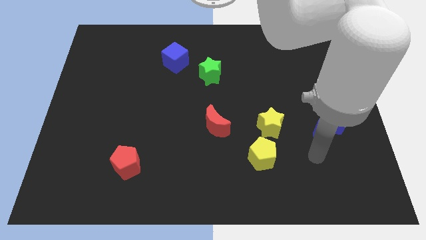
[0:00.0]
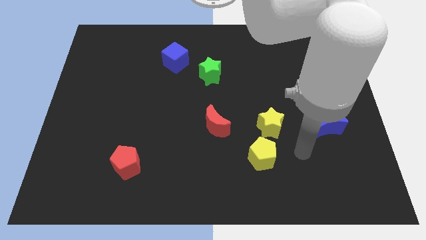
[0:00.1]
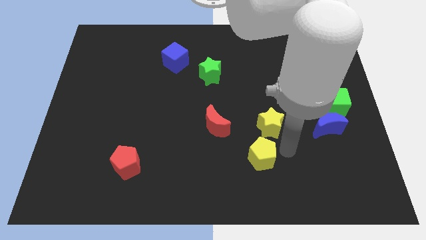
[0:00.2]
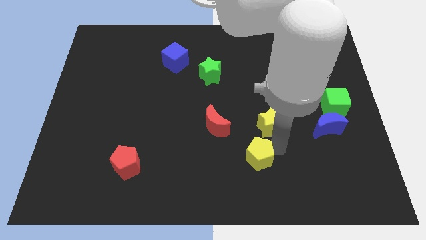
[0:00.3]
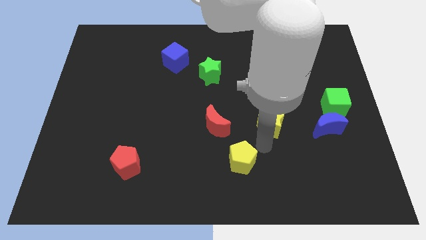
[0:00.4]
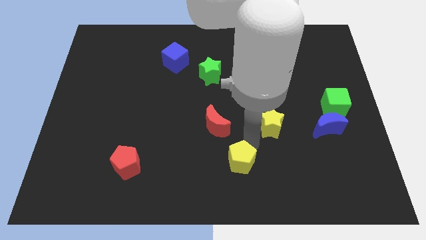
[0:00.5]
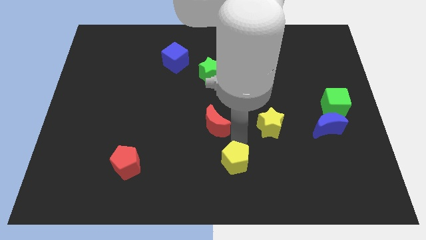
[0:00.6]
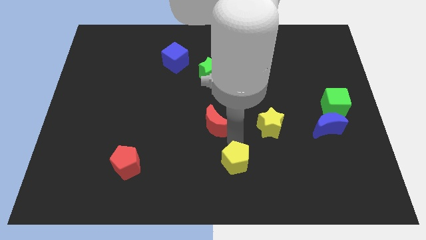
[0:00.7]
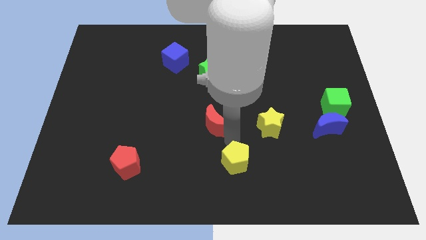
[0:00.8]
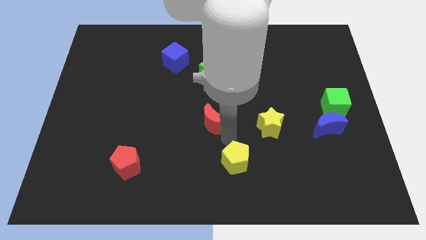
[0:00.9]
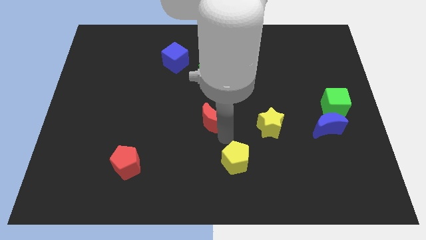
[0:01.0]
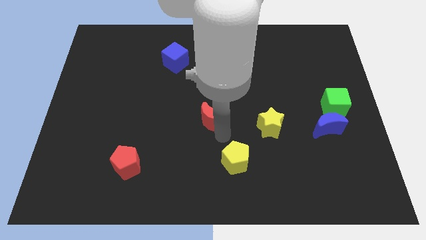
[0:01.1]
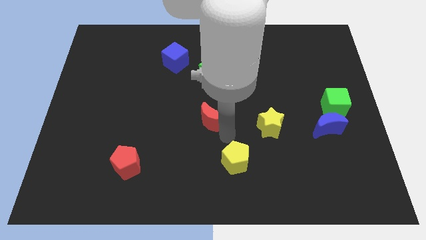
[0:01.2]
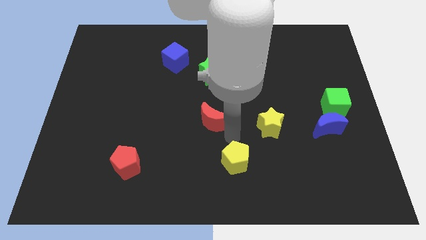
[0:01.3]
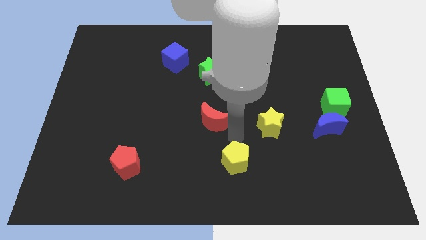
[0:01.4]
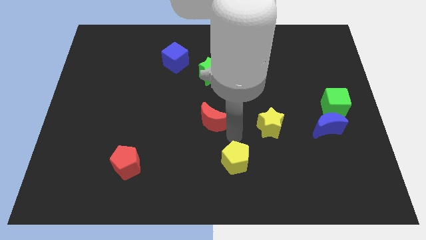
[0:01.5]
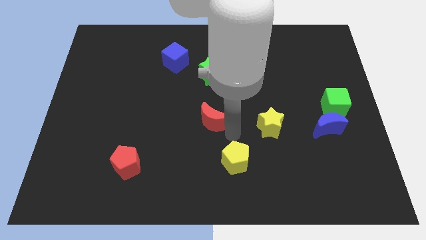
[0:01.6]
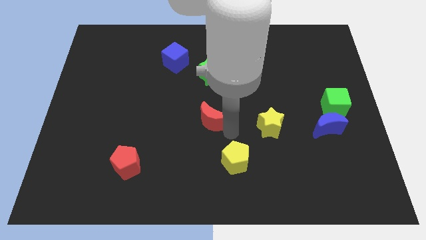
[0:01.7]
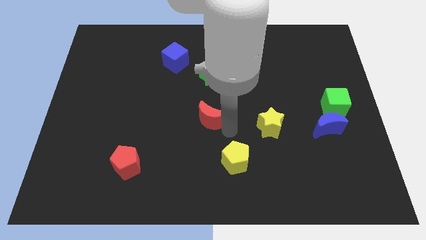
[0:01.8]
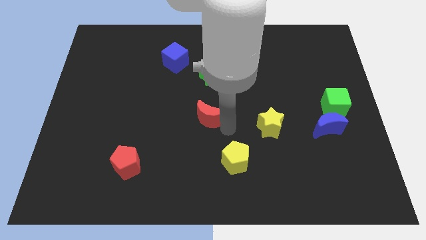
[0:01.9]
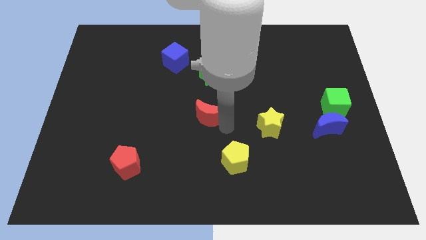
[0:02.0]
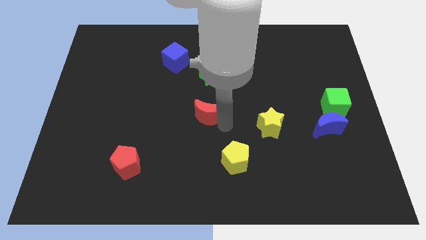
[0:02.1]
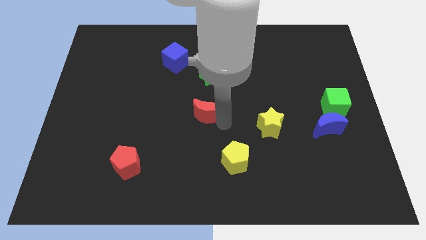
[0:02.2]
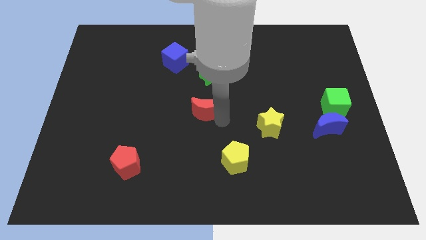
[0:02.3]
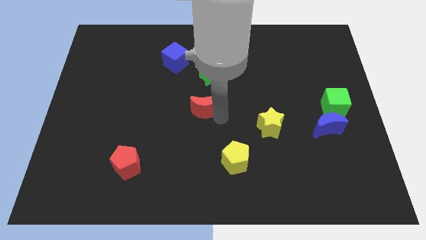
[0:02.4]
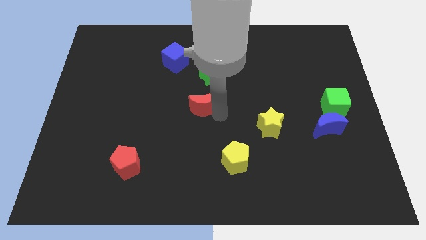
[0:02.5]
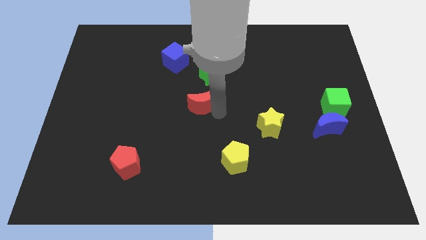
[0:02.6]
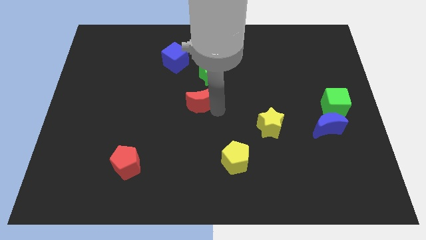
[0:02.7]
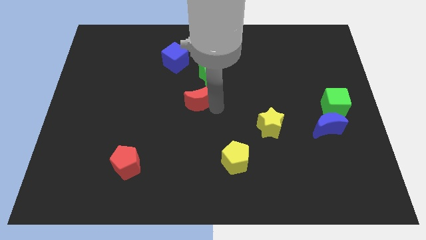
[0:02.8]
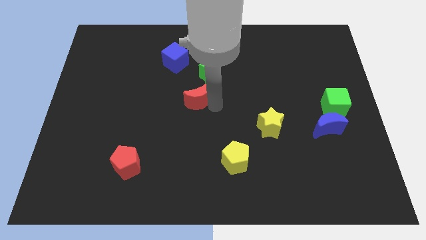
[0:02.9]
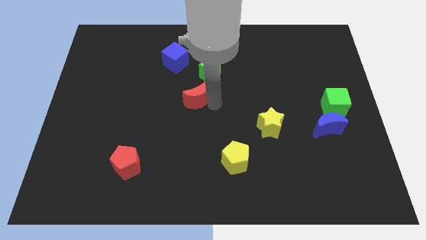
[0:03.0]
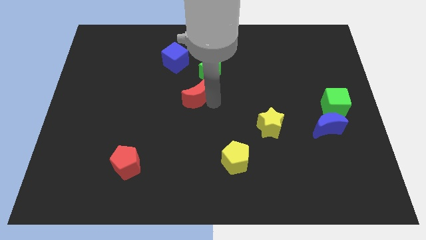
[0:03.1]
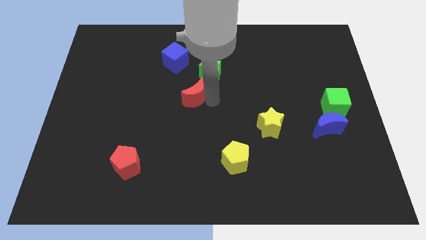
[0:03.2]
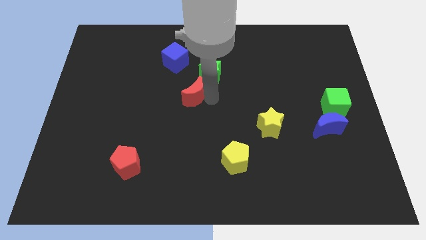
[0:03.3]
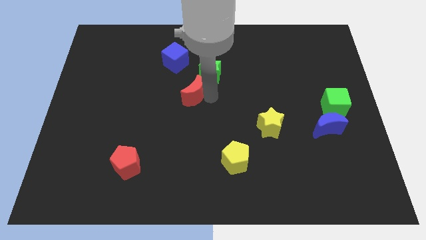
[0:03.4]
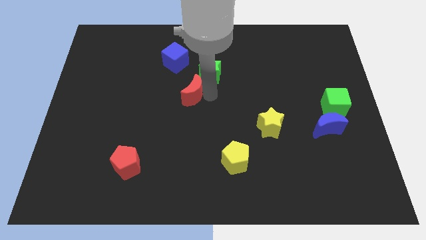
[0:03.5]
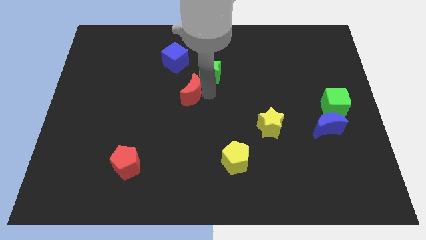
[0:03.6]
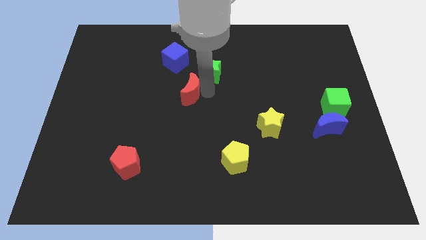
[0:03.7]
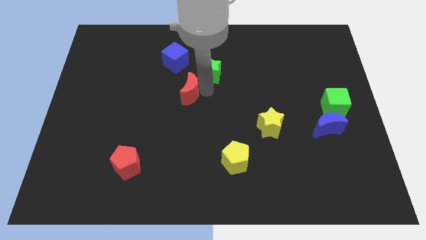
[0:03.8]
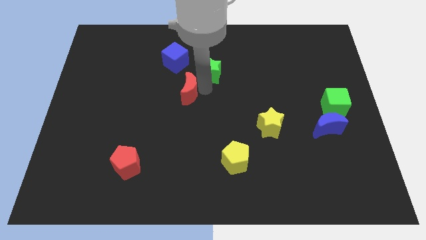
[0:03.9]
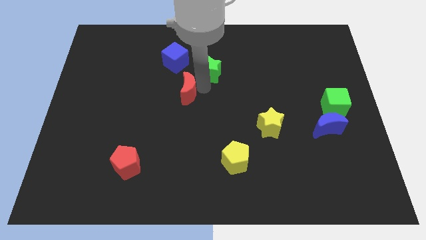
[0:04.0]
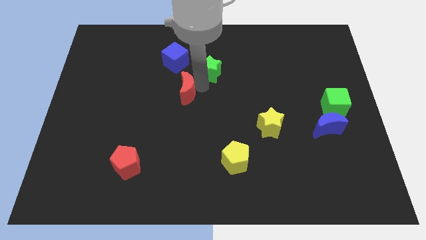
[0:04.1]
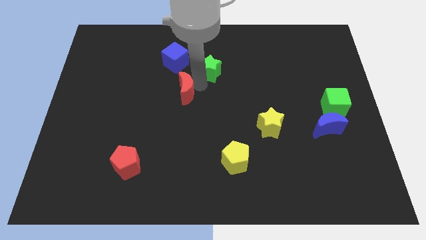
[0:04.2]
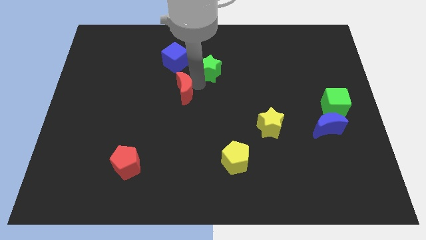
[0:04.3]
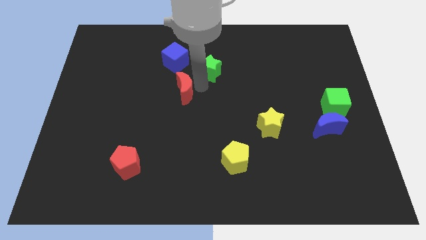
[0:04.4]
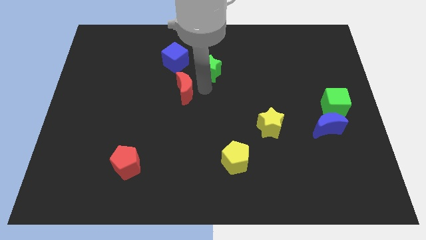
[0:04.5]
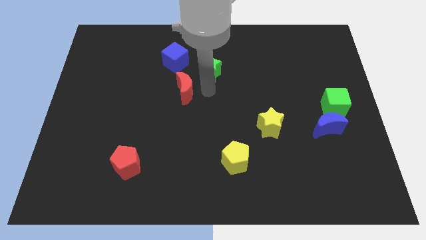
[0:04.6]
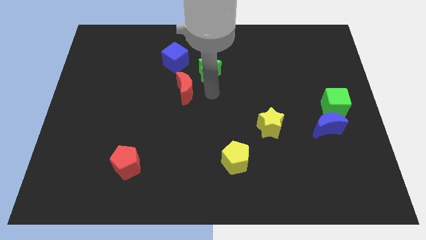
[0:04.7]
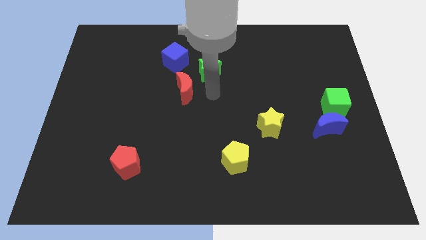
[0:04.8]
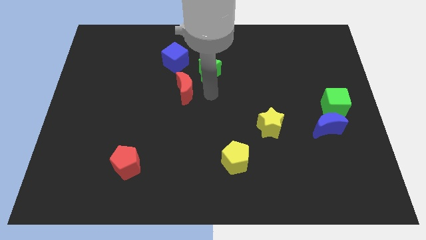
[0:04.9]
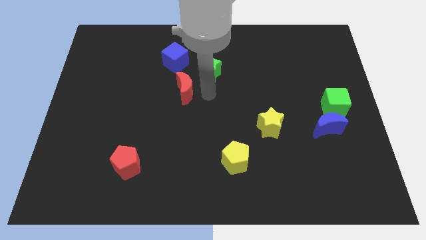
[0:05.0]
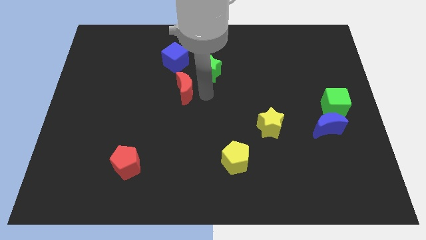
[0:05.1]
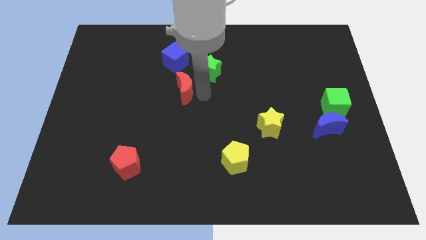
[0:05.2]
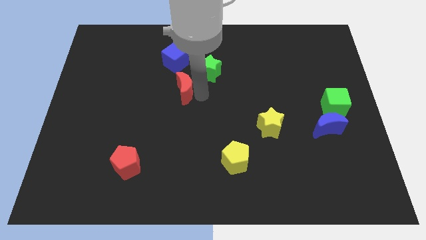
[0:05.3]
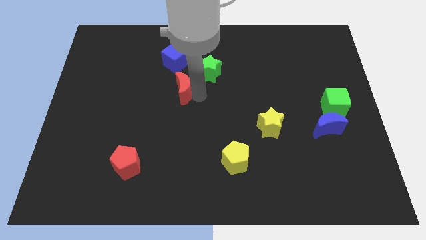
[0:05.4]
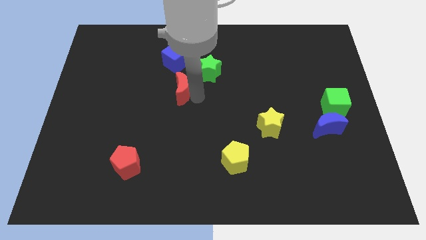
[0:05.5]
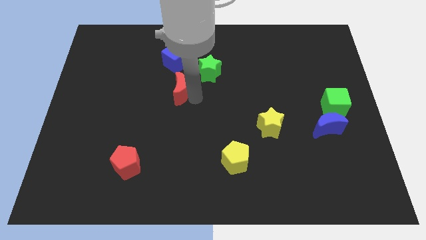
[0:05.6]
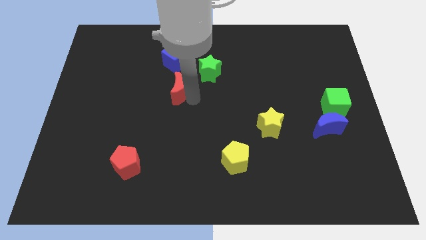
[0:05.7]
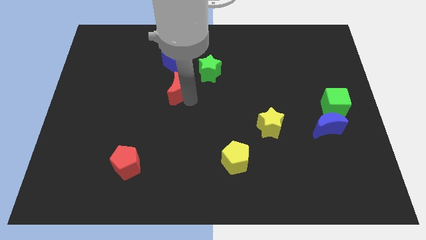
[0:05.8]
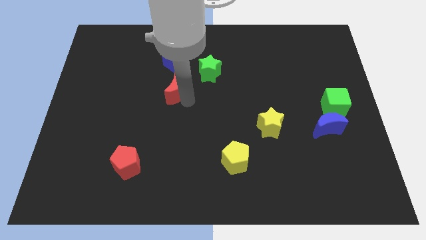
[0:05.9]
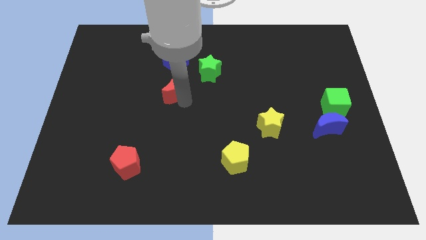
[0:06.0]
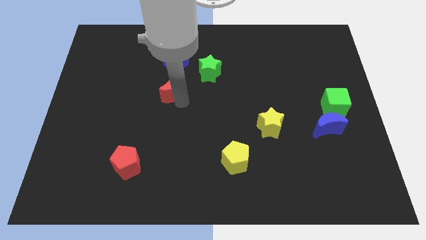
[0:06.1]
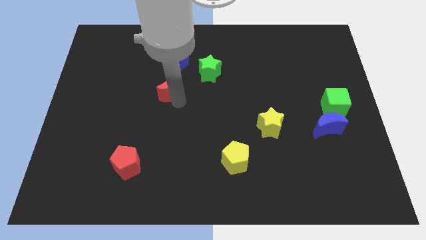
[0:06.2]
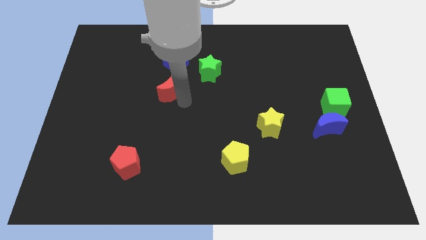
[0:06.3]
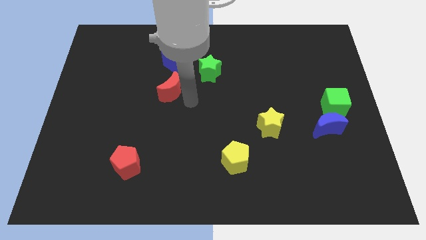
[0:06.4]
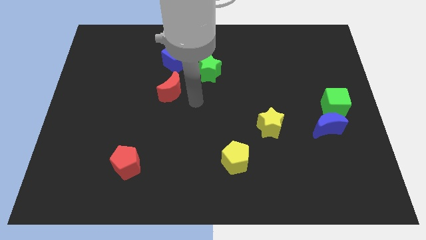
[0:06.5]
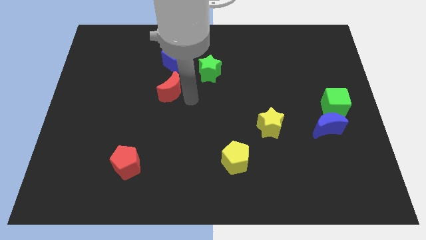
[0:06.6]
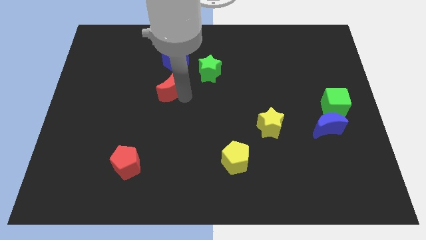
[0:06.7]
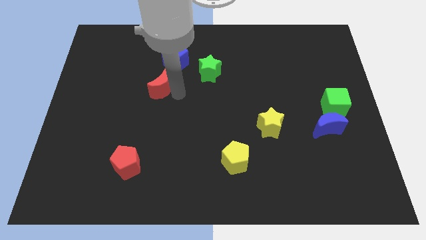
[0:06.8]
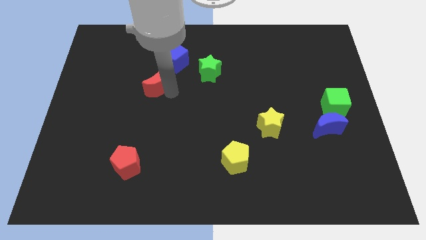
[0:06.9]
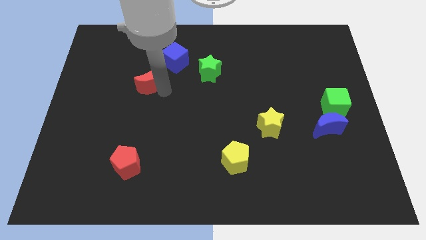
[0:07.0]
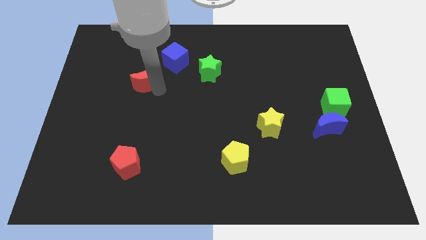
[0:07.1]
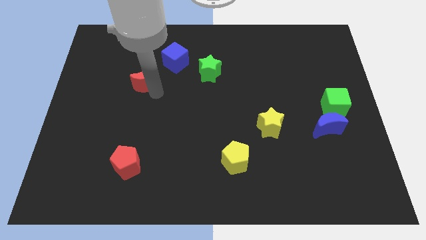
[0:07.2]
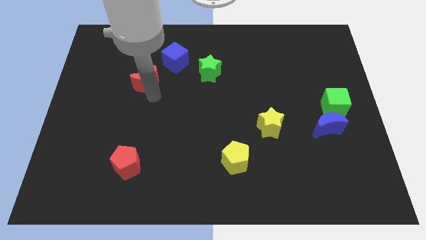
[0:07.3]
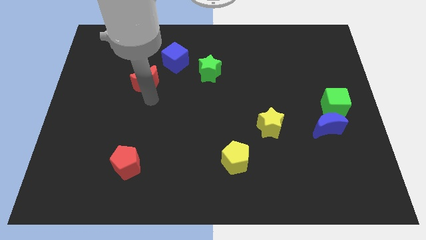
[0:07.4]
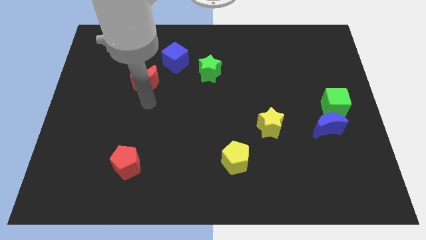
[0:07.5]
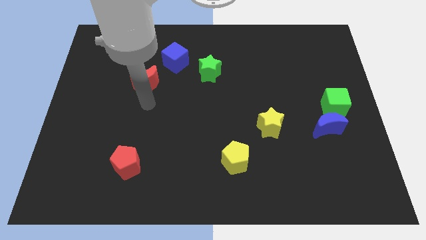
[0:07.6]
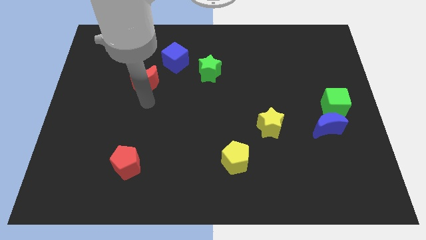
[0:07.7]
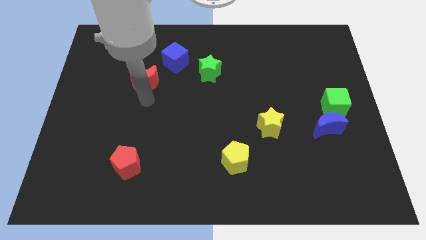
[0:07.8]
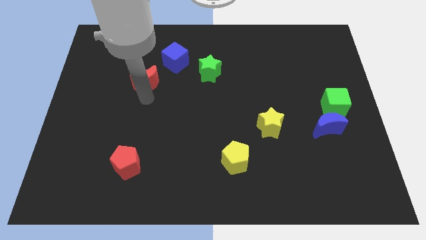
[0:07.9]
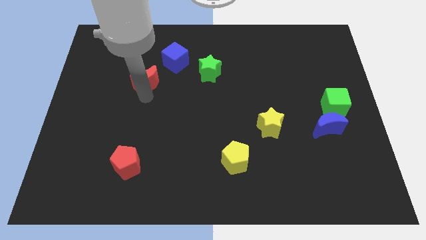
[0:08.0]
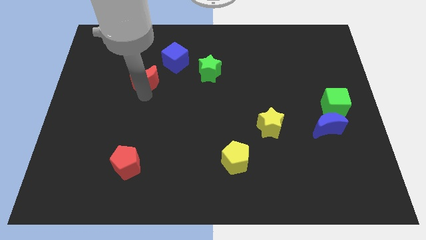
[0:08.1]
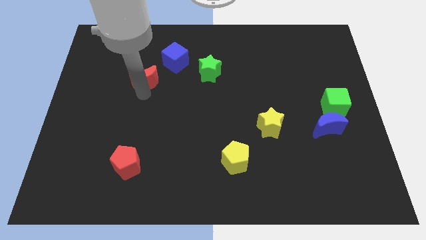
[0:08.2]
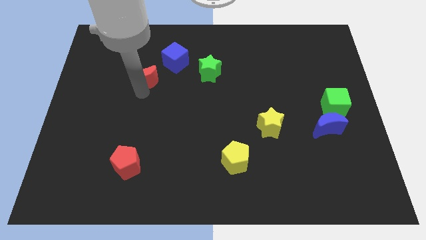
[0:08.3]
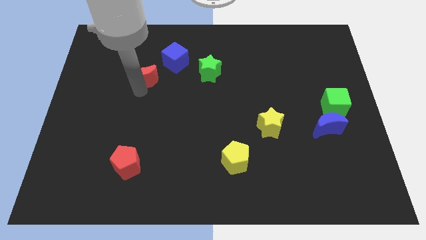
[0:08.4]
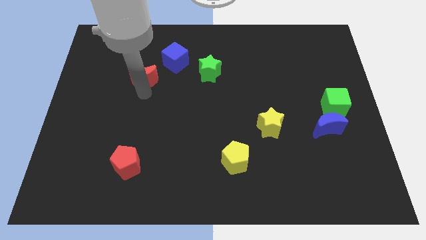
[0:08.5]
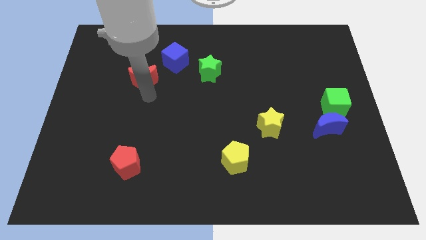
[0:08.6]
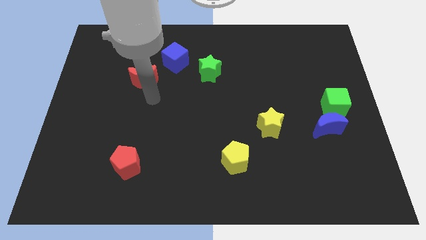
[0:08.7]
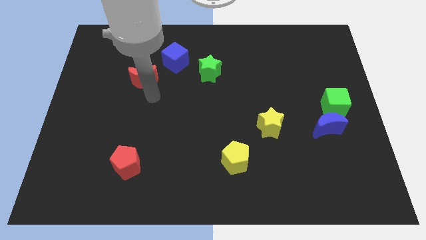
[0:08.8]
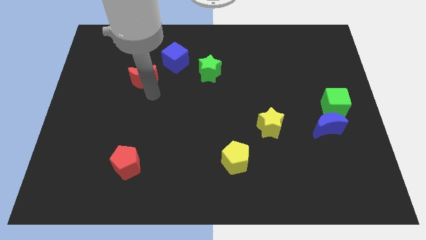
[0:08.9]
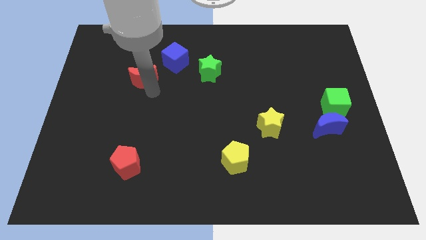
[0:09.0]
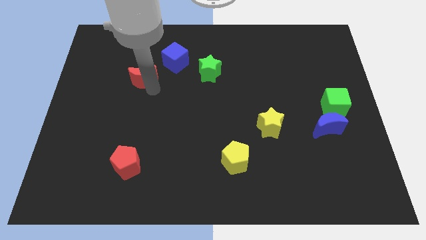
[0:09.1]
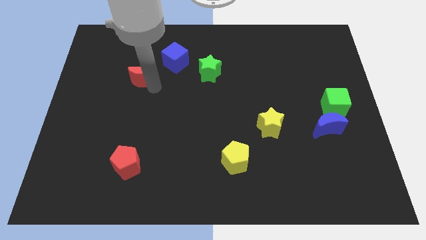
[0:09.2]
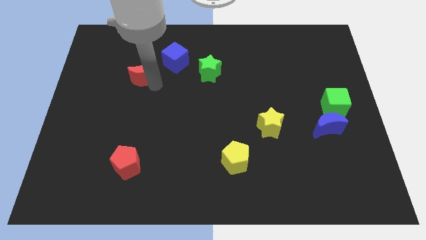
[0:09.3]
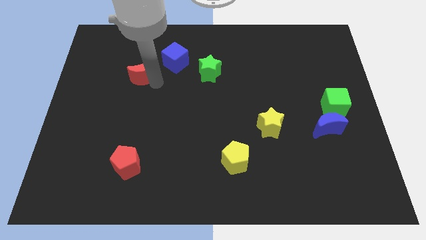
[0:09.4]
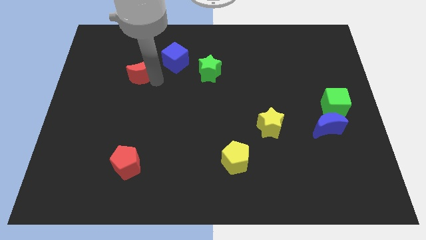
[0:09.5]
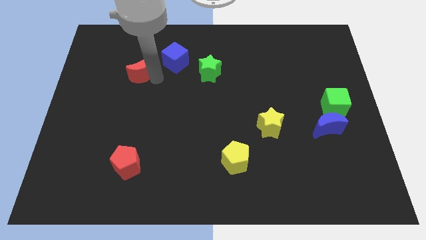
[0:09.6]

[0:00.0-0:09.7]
put the red moon to the left side of the blue cube
